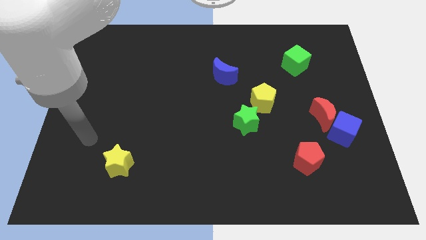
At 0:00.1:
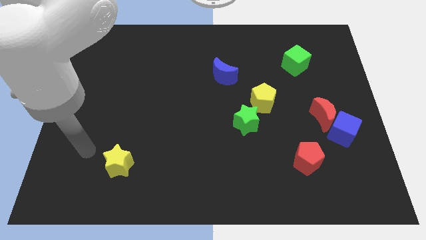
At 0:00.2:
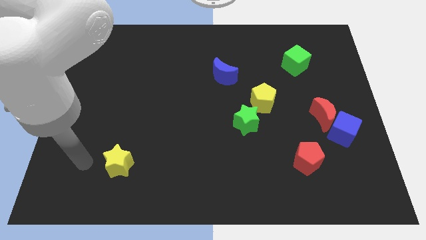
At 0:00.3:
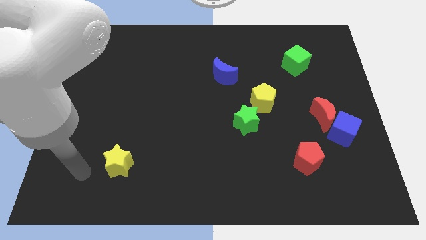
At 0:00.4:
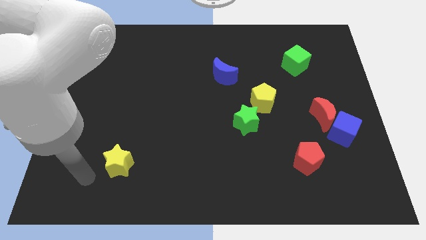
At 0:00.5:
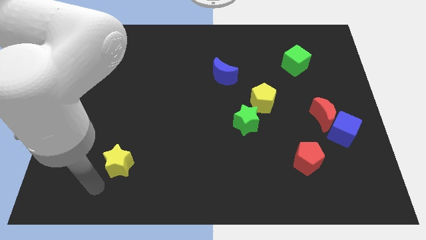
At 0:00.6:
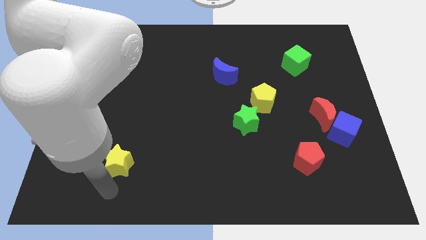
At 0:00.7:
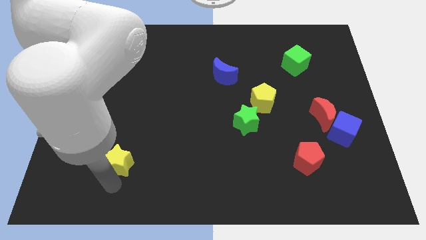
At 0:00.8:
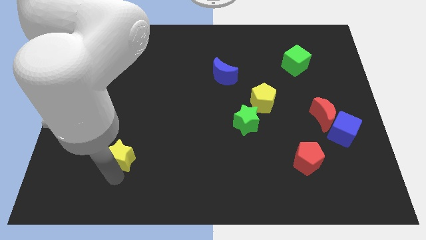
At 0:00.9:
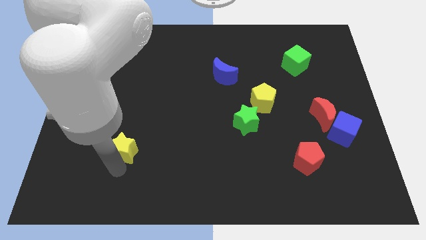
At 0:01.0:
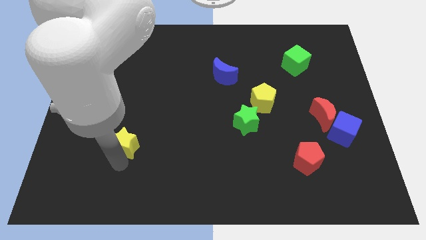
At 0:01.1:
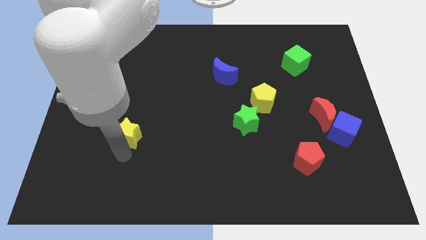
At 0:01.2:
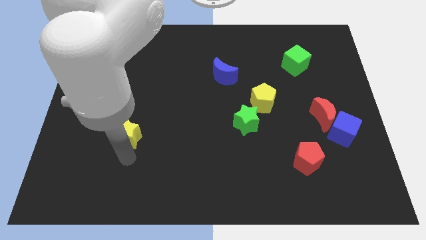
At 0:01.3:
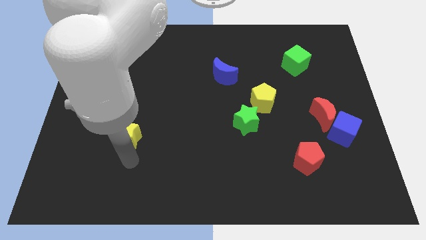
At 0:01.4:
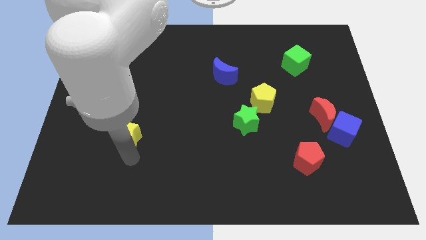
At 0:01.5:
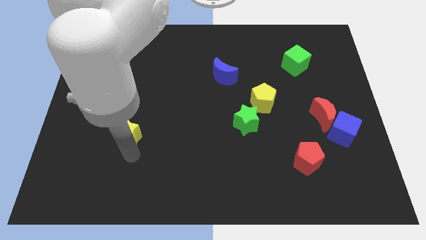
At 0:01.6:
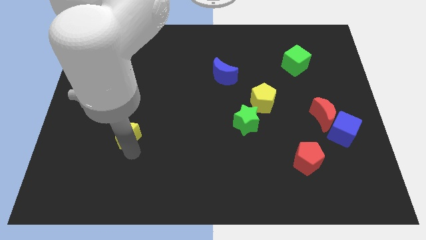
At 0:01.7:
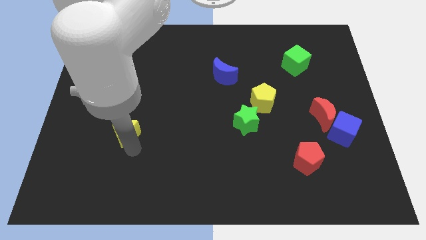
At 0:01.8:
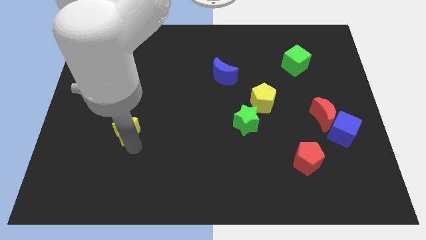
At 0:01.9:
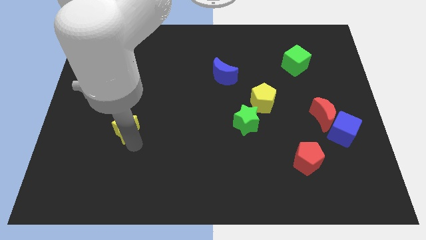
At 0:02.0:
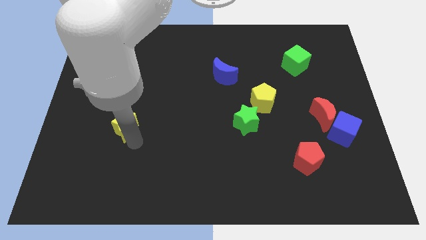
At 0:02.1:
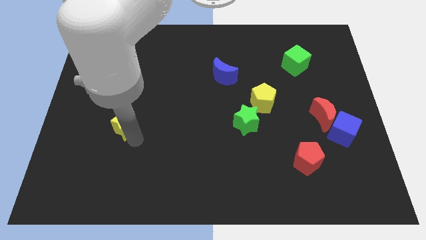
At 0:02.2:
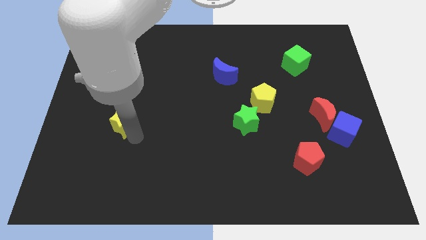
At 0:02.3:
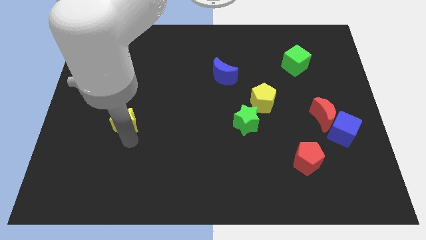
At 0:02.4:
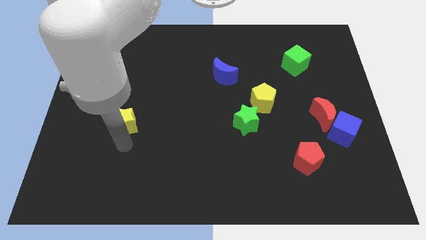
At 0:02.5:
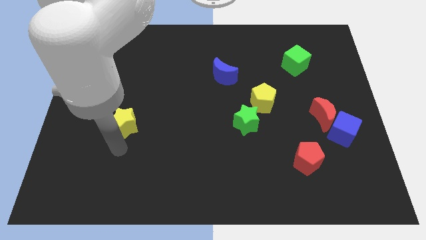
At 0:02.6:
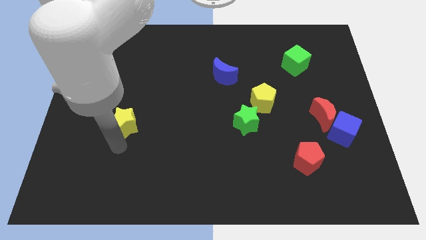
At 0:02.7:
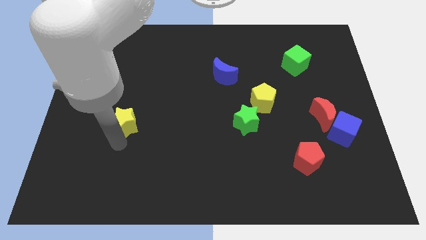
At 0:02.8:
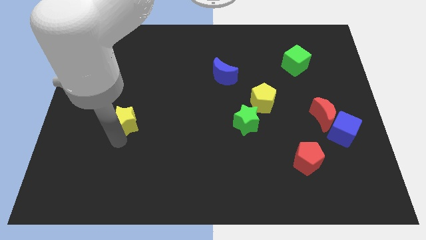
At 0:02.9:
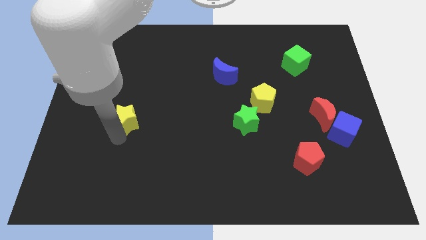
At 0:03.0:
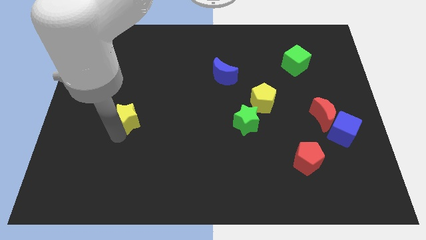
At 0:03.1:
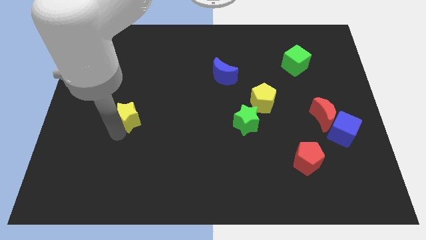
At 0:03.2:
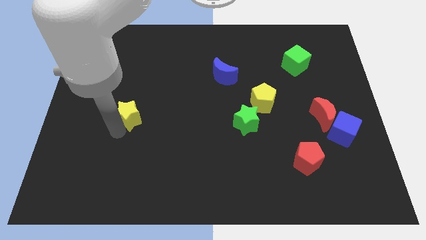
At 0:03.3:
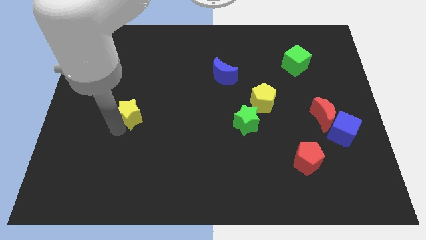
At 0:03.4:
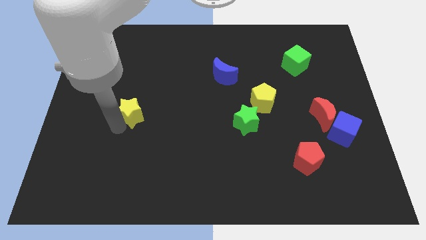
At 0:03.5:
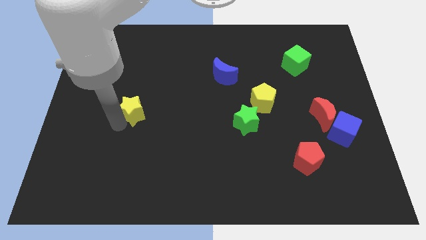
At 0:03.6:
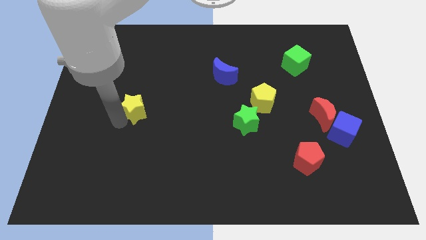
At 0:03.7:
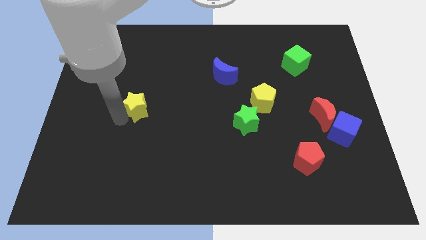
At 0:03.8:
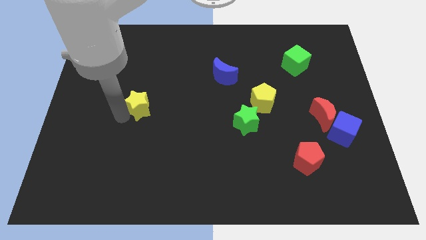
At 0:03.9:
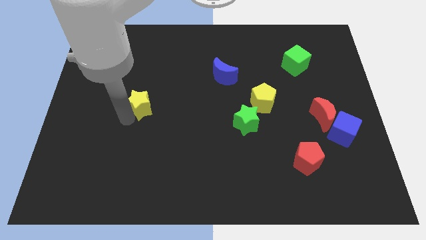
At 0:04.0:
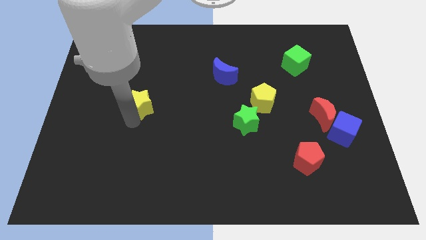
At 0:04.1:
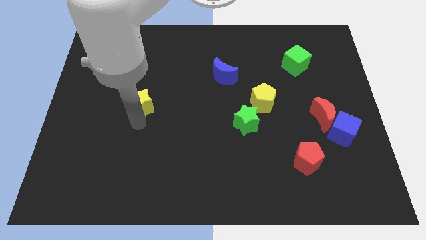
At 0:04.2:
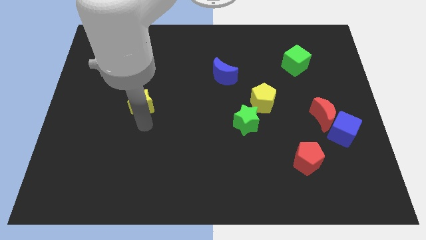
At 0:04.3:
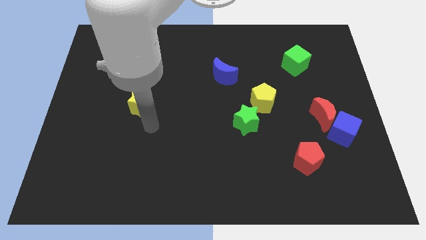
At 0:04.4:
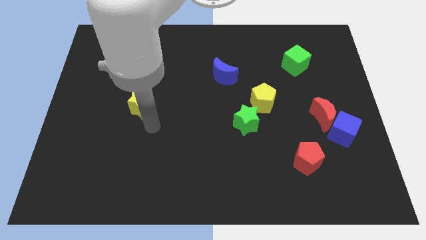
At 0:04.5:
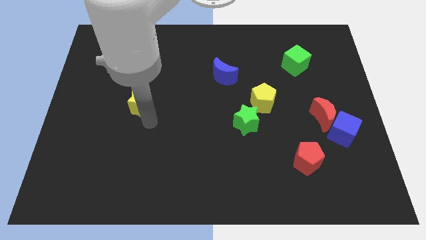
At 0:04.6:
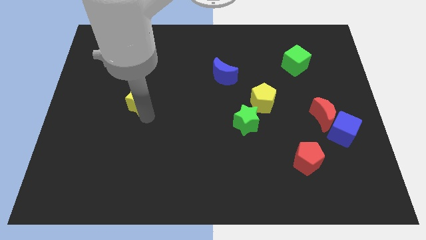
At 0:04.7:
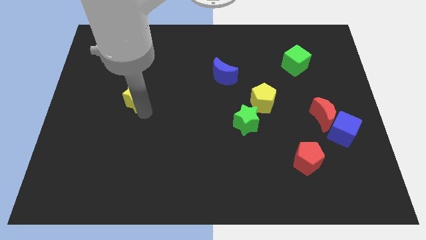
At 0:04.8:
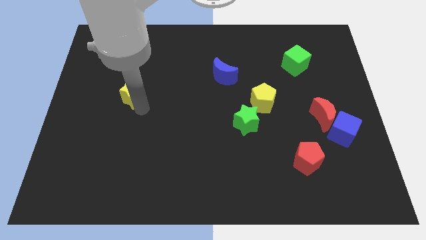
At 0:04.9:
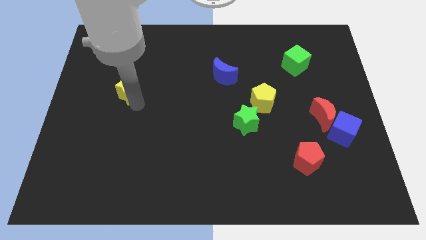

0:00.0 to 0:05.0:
push the yellow star up

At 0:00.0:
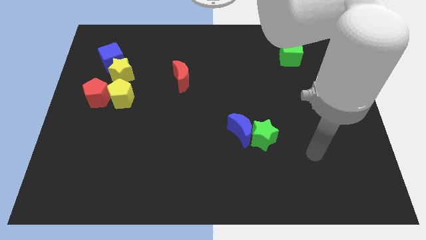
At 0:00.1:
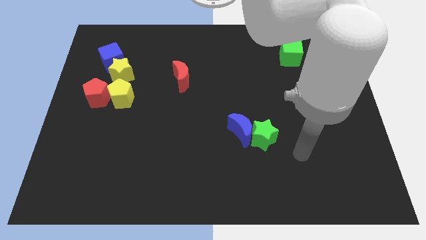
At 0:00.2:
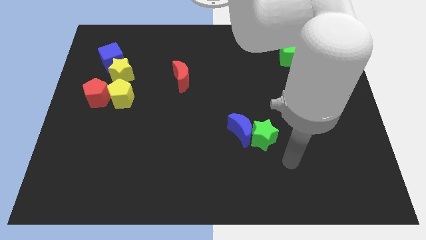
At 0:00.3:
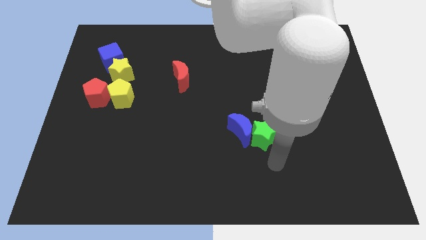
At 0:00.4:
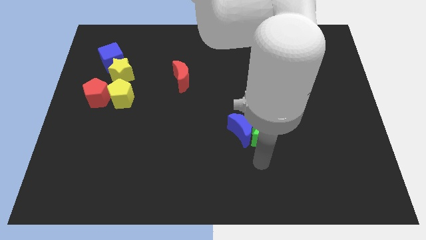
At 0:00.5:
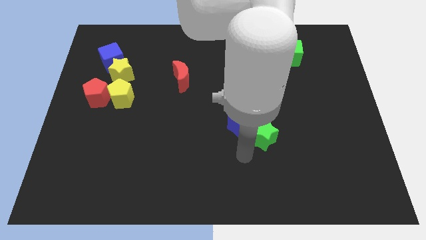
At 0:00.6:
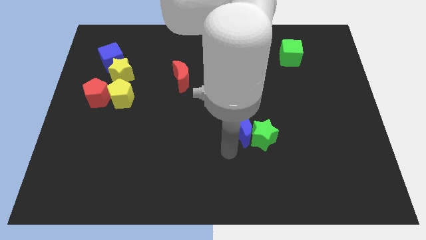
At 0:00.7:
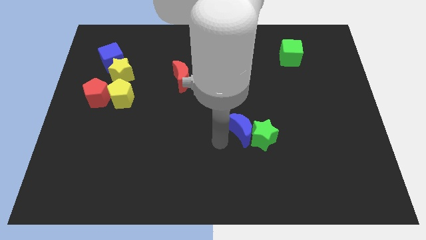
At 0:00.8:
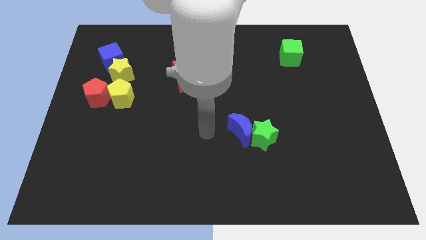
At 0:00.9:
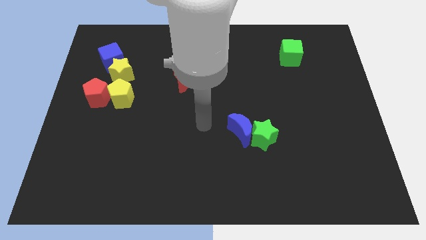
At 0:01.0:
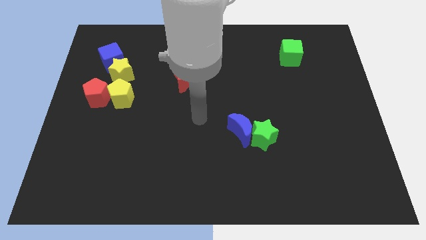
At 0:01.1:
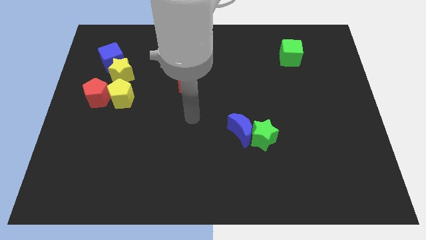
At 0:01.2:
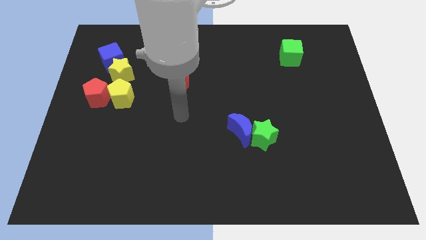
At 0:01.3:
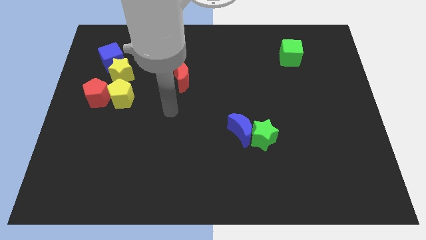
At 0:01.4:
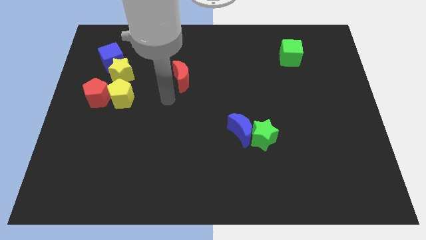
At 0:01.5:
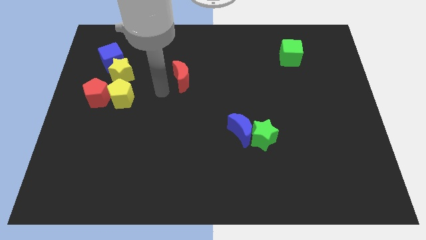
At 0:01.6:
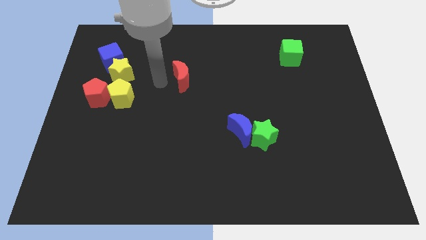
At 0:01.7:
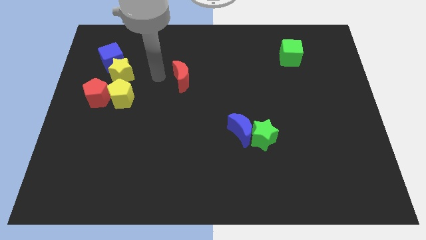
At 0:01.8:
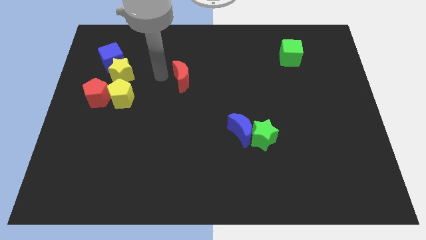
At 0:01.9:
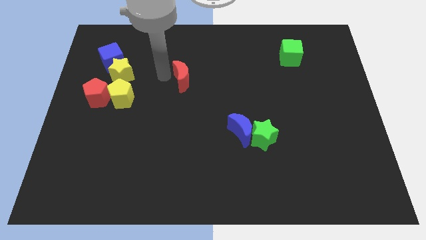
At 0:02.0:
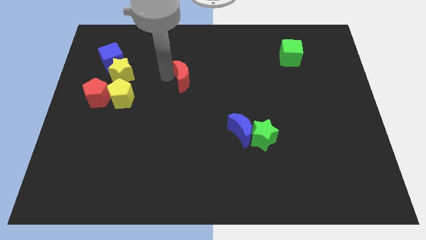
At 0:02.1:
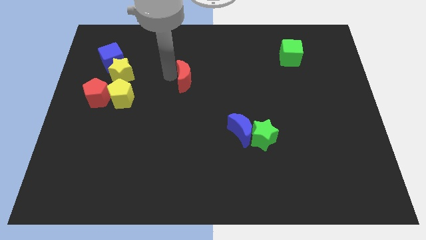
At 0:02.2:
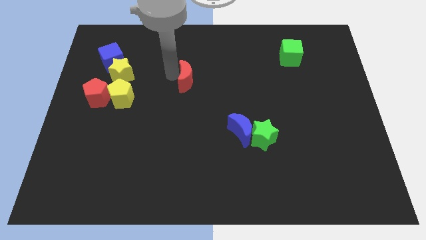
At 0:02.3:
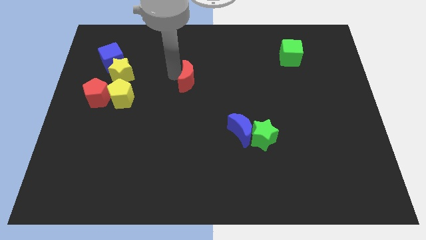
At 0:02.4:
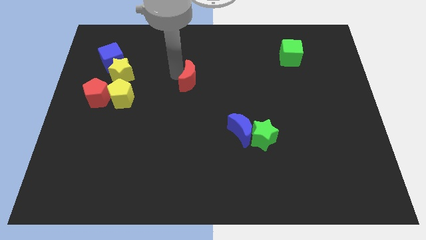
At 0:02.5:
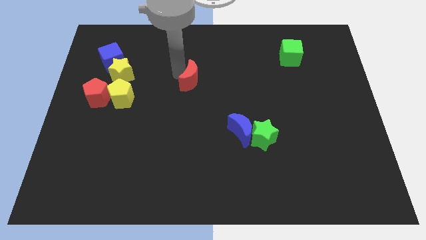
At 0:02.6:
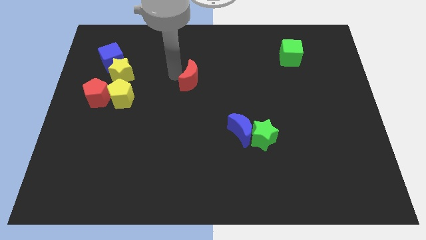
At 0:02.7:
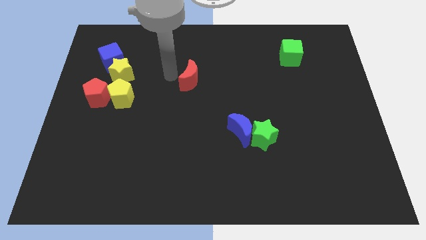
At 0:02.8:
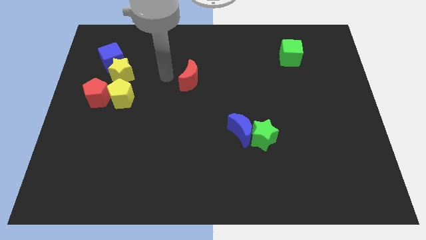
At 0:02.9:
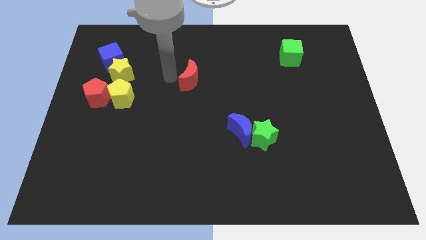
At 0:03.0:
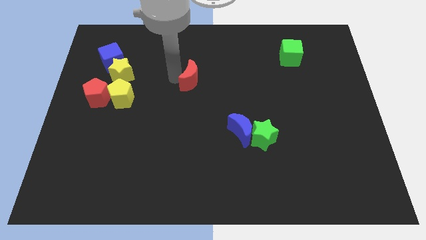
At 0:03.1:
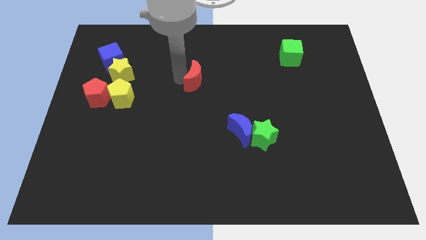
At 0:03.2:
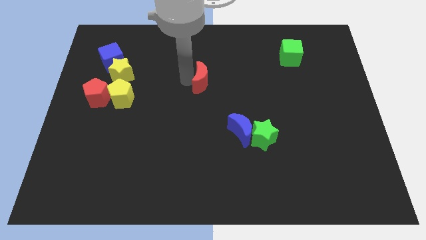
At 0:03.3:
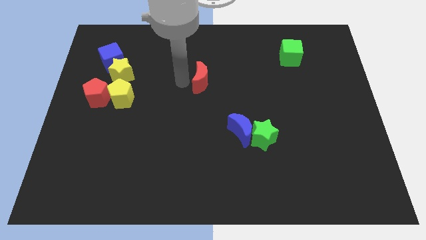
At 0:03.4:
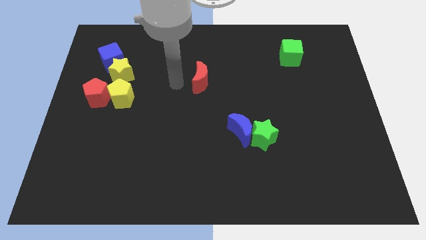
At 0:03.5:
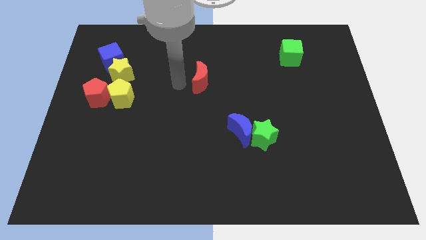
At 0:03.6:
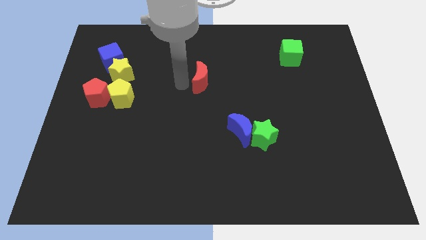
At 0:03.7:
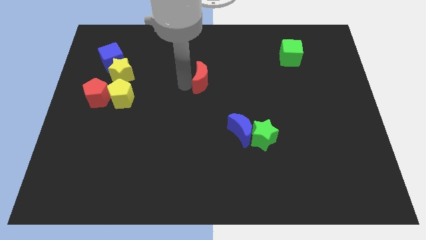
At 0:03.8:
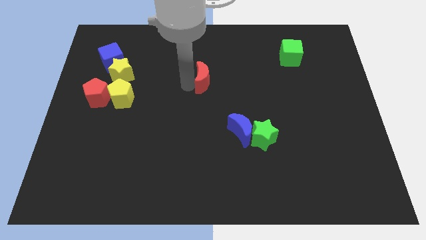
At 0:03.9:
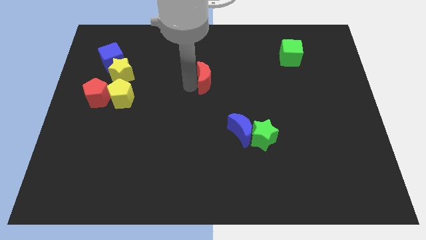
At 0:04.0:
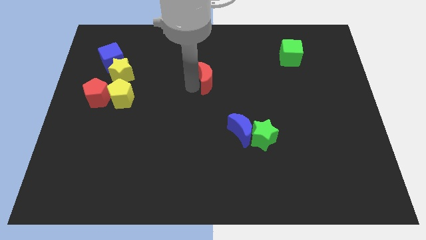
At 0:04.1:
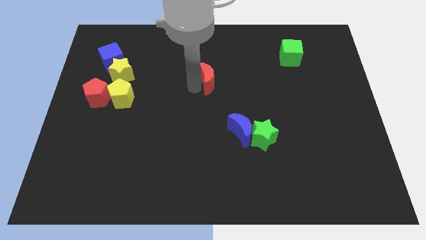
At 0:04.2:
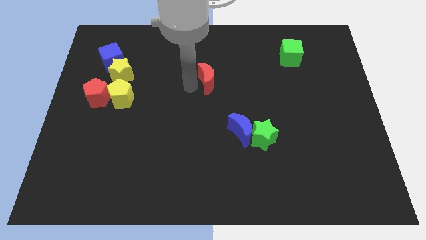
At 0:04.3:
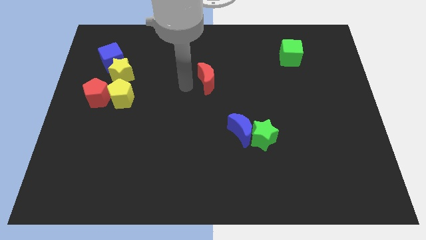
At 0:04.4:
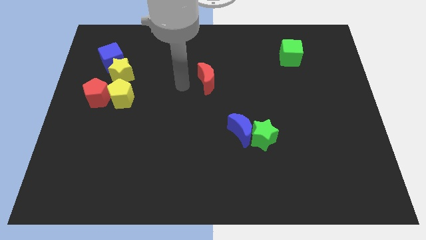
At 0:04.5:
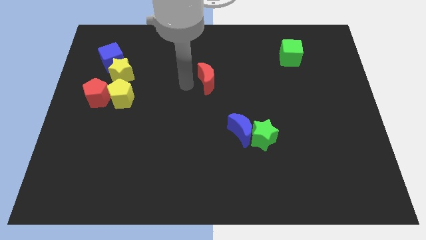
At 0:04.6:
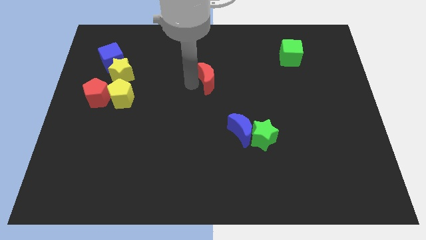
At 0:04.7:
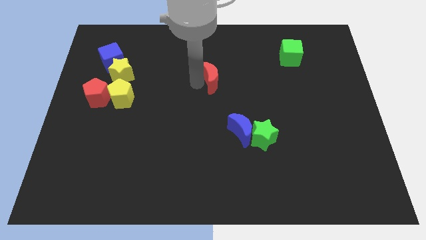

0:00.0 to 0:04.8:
slide the red moon to the right a little bit
